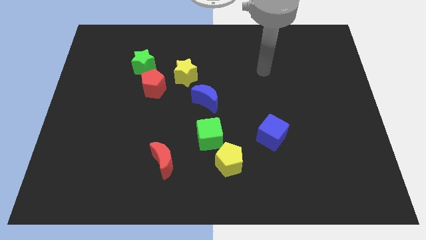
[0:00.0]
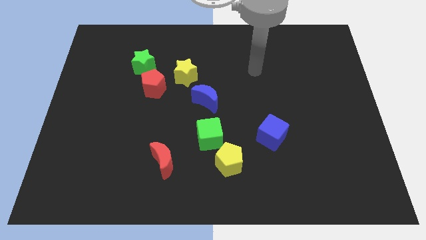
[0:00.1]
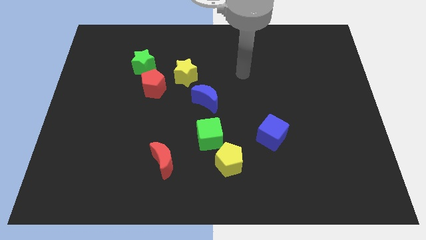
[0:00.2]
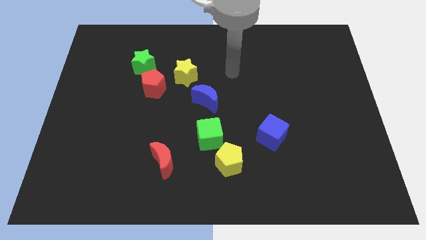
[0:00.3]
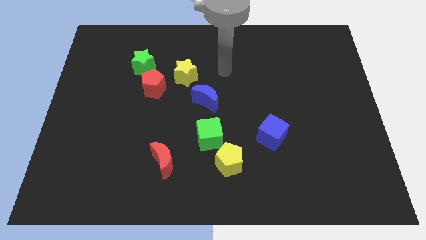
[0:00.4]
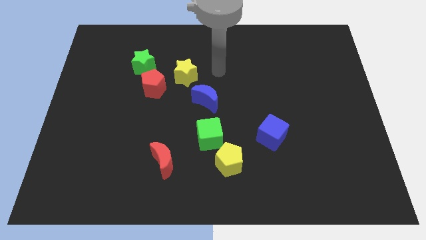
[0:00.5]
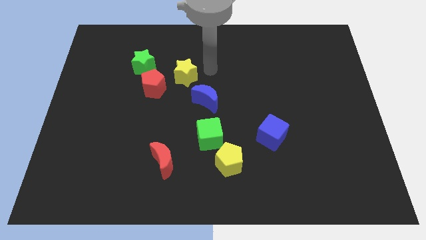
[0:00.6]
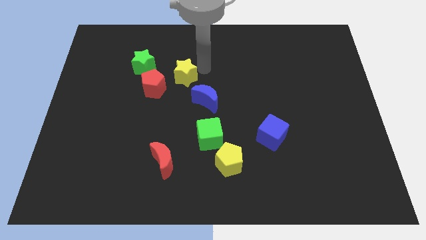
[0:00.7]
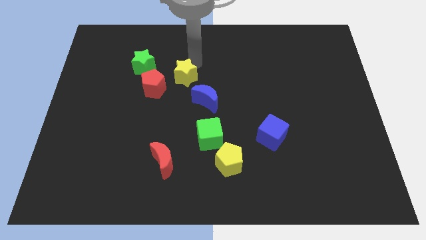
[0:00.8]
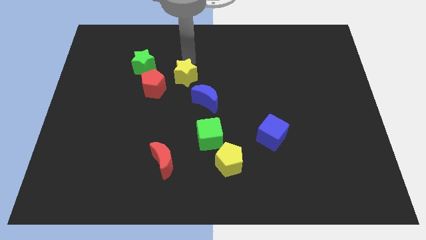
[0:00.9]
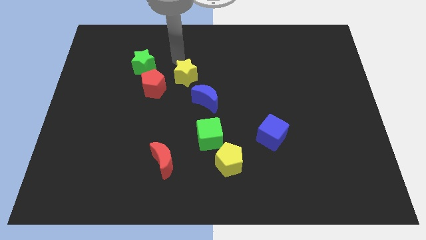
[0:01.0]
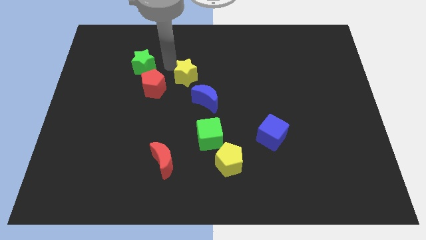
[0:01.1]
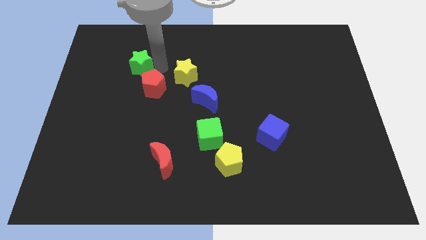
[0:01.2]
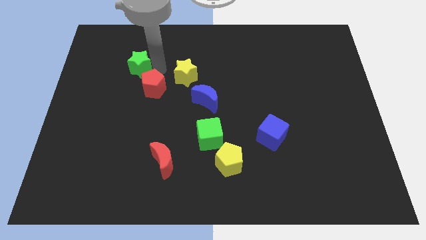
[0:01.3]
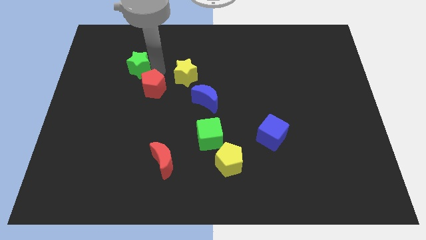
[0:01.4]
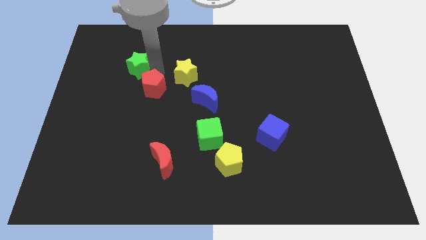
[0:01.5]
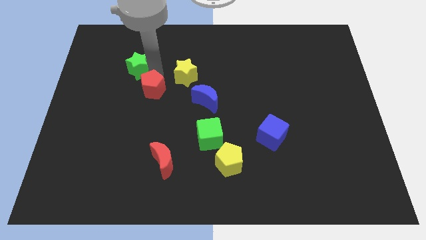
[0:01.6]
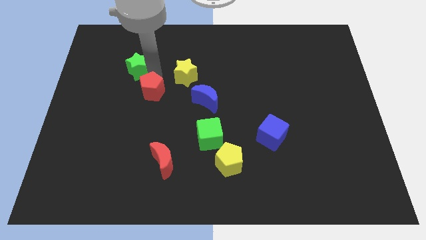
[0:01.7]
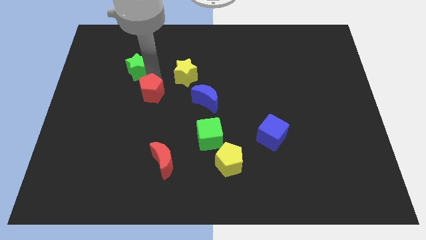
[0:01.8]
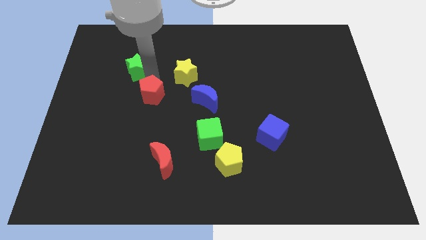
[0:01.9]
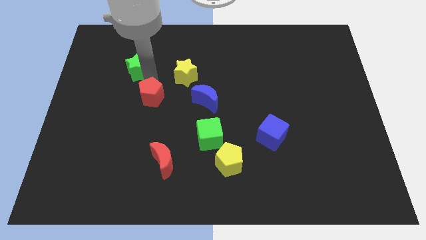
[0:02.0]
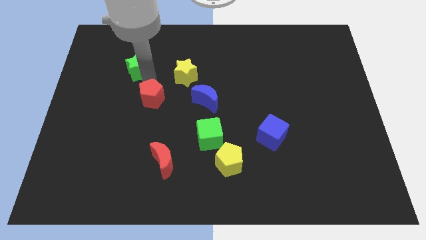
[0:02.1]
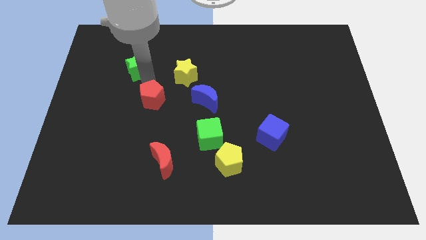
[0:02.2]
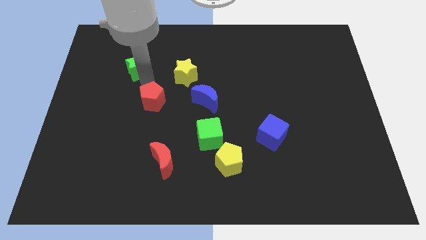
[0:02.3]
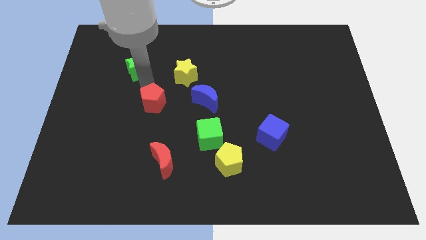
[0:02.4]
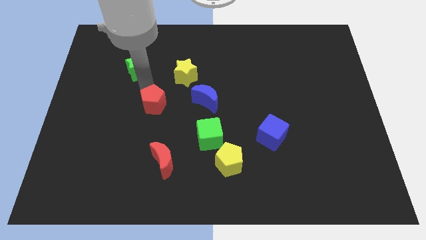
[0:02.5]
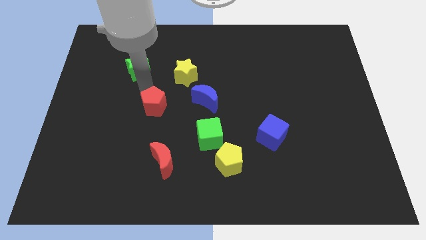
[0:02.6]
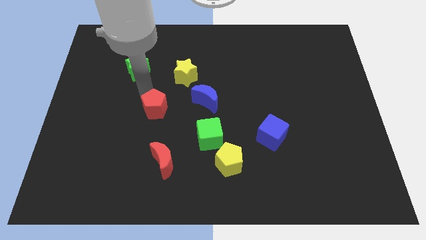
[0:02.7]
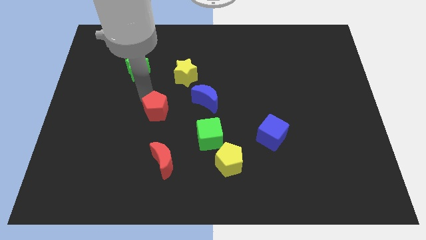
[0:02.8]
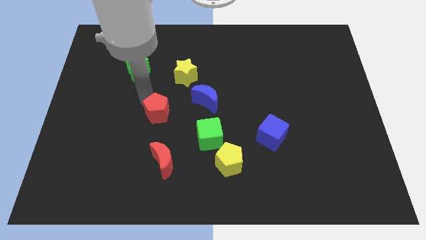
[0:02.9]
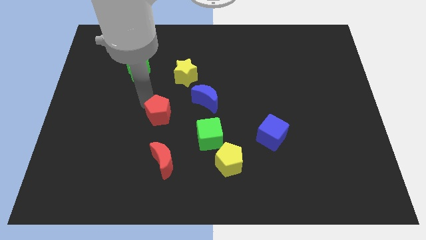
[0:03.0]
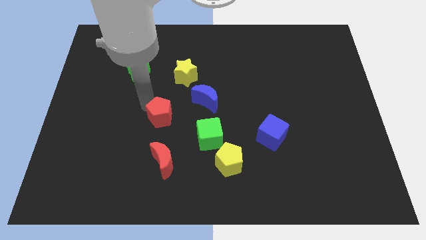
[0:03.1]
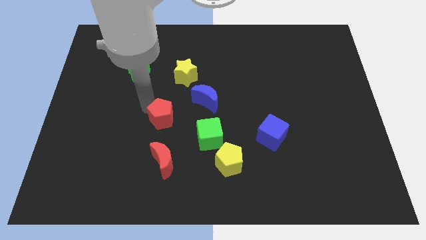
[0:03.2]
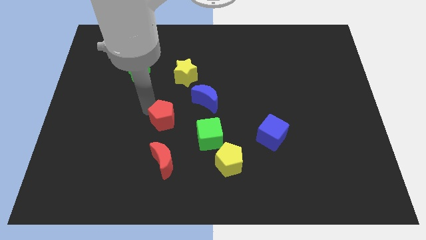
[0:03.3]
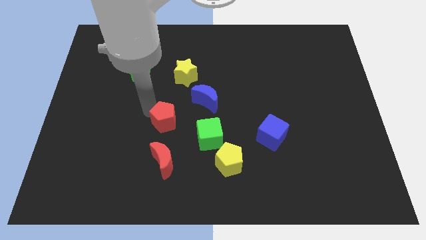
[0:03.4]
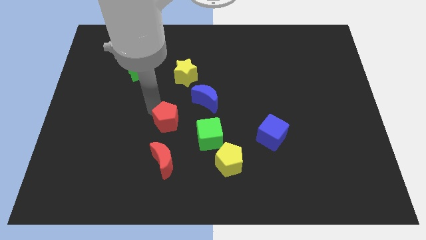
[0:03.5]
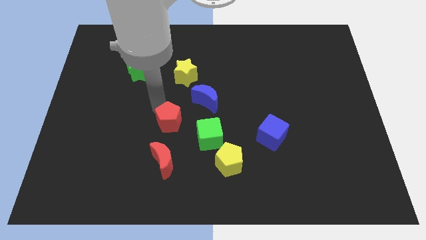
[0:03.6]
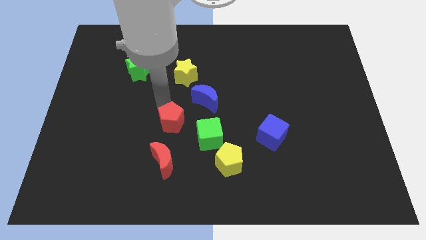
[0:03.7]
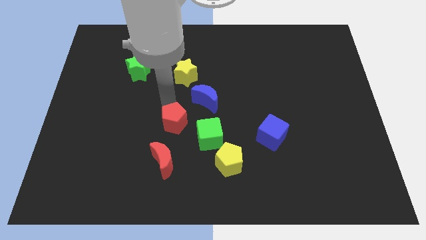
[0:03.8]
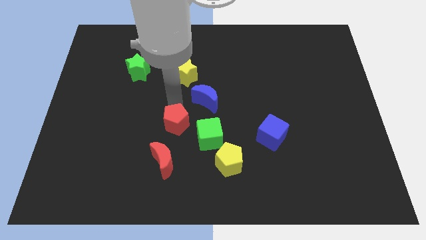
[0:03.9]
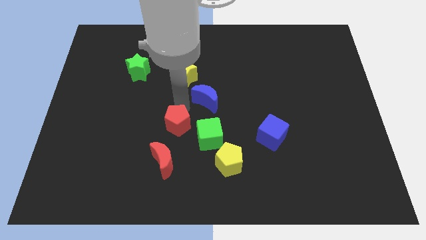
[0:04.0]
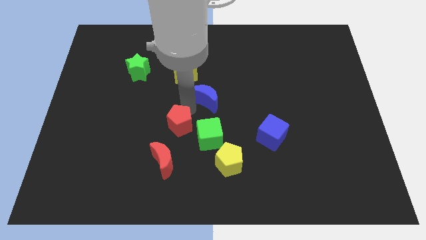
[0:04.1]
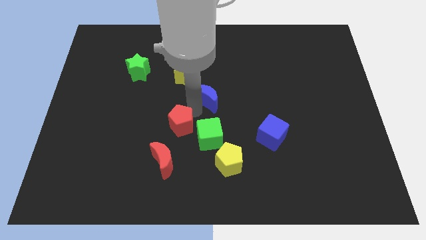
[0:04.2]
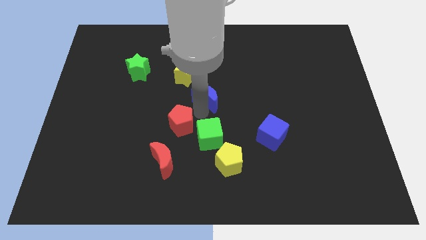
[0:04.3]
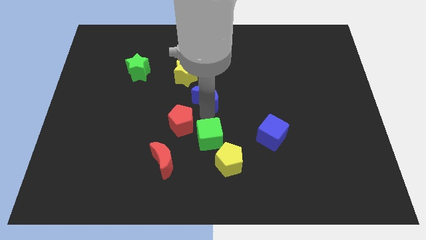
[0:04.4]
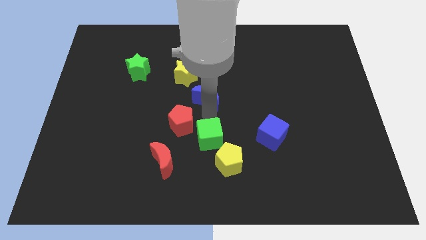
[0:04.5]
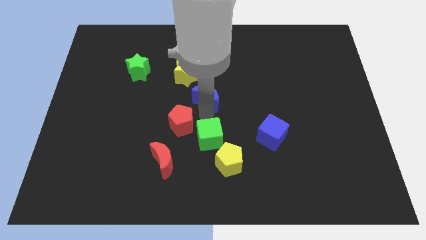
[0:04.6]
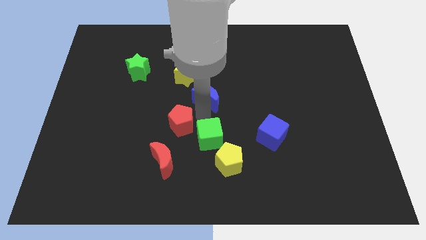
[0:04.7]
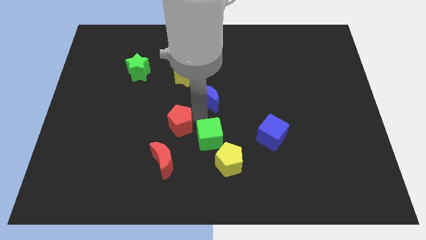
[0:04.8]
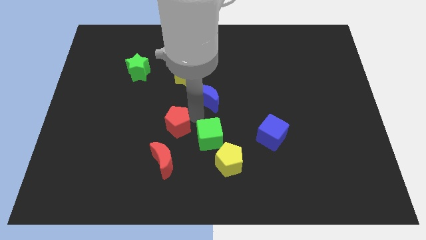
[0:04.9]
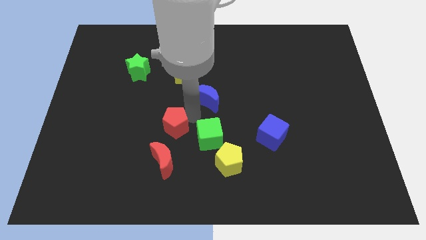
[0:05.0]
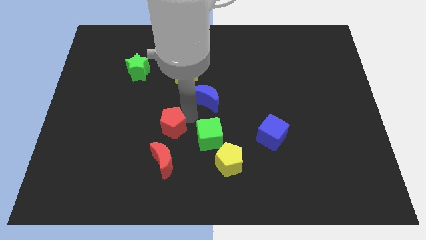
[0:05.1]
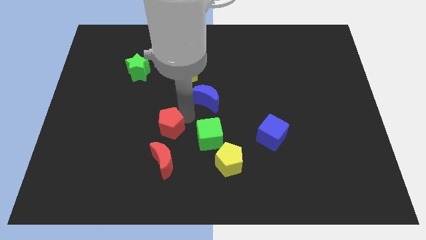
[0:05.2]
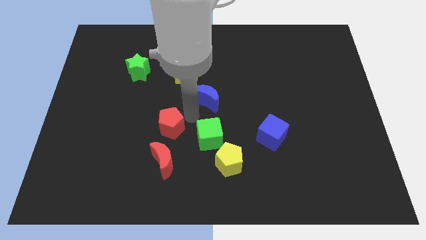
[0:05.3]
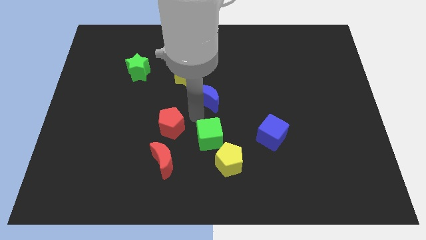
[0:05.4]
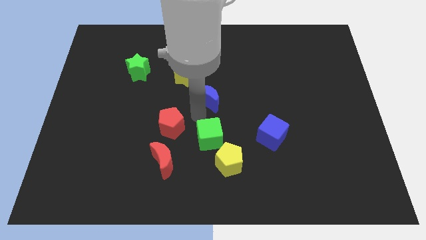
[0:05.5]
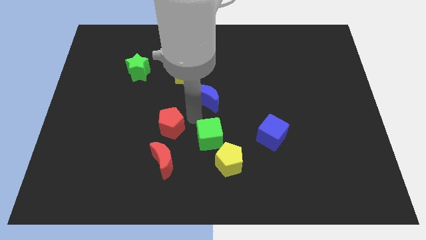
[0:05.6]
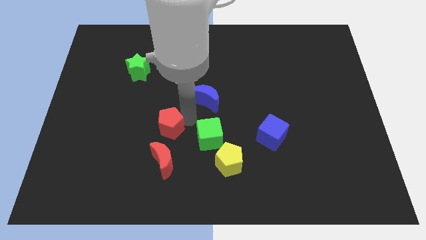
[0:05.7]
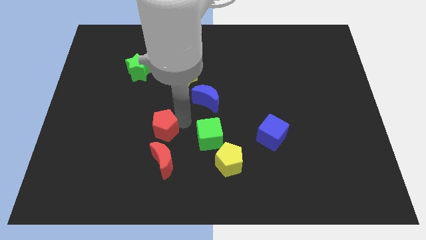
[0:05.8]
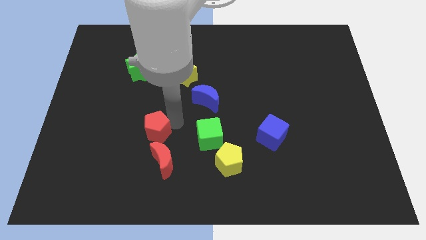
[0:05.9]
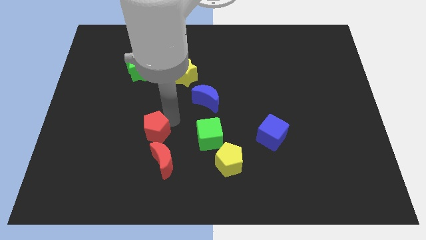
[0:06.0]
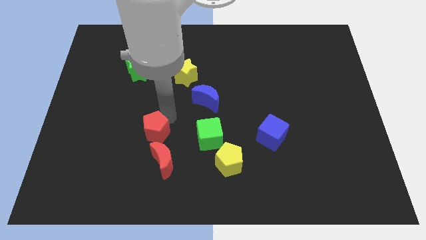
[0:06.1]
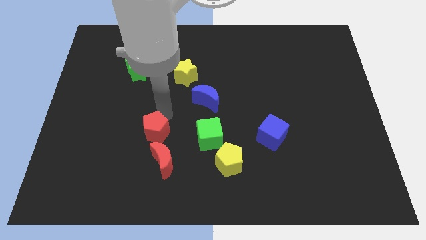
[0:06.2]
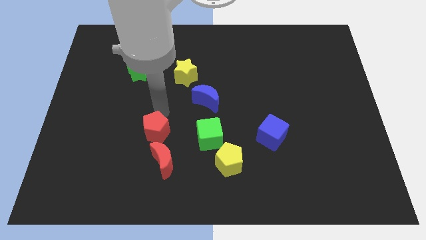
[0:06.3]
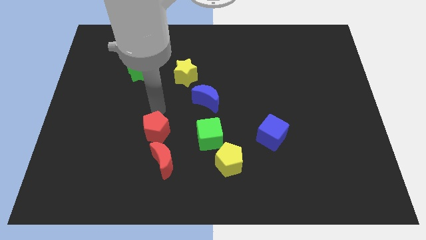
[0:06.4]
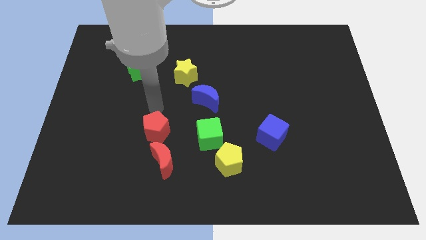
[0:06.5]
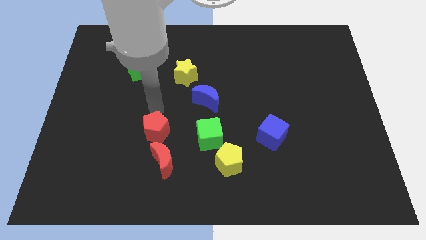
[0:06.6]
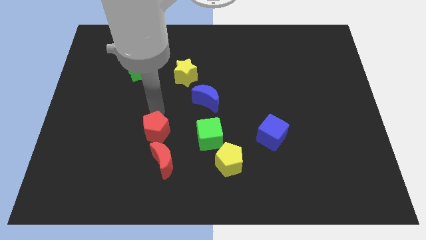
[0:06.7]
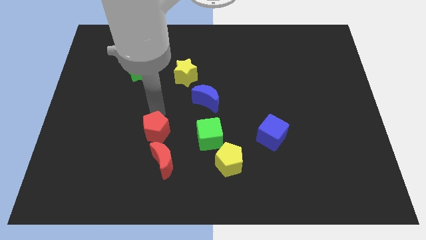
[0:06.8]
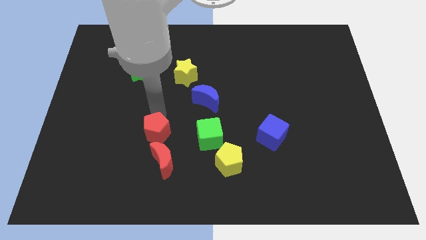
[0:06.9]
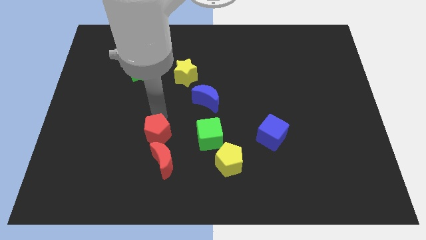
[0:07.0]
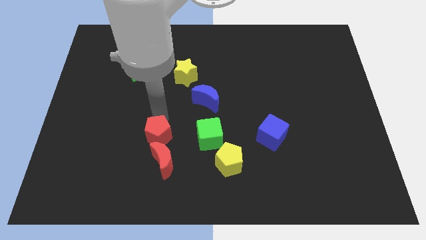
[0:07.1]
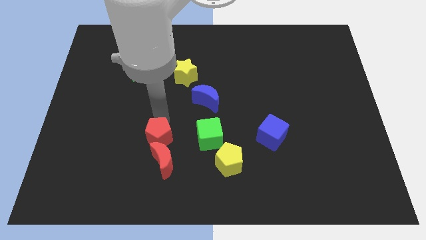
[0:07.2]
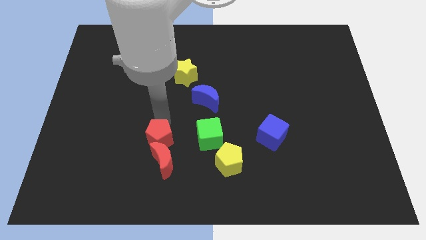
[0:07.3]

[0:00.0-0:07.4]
put the red pentagon towards the red moon
